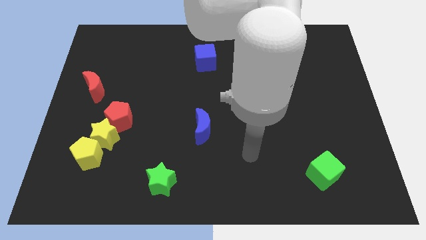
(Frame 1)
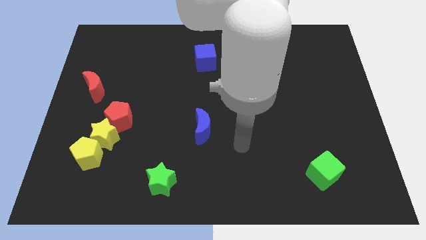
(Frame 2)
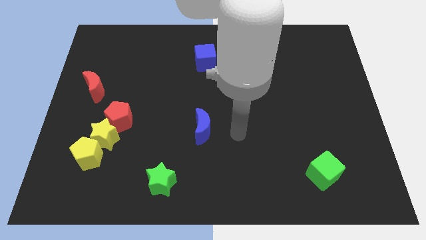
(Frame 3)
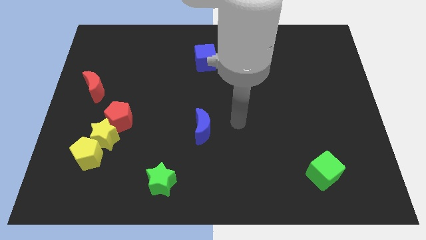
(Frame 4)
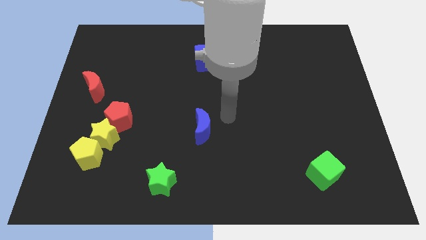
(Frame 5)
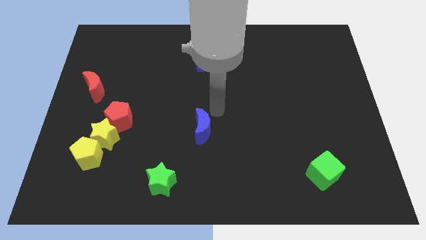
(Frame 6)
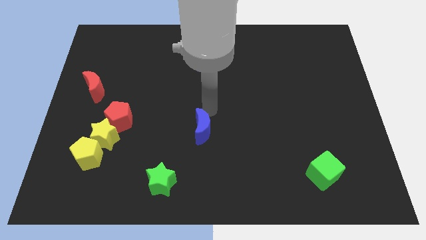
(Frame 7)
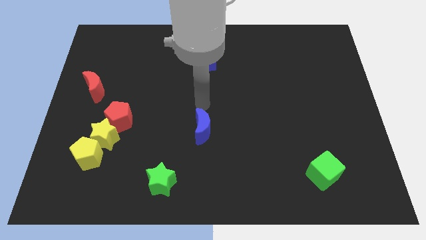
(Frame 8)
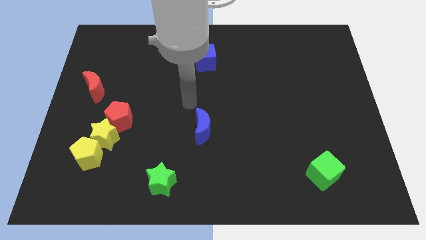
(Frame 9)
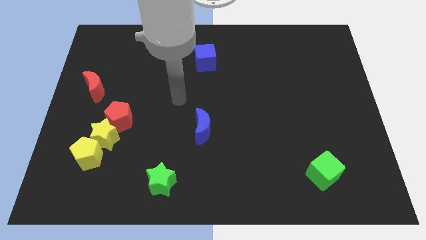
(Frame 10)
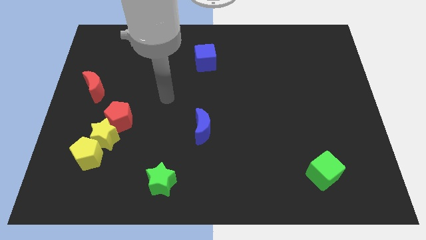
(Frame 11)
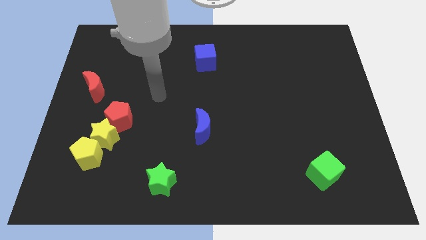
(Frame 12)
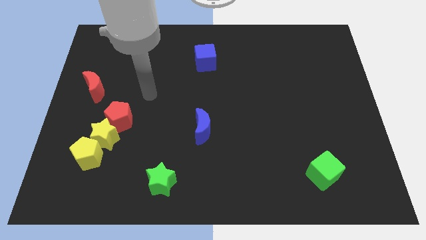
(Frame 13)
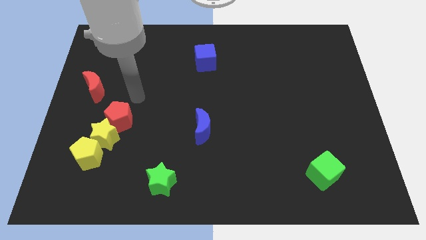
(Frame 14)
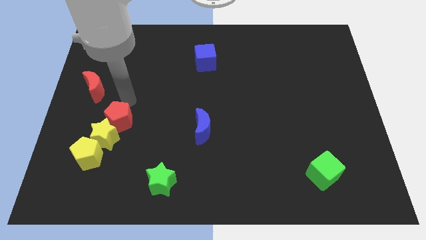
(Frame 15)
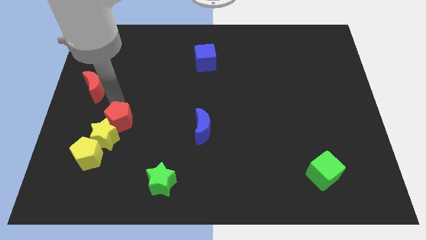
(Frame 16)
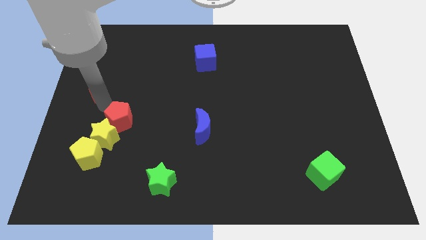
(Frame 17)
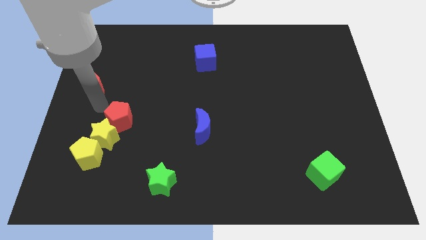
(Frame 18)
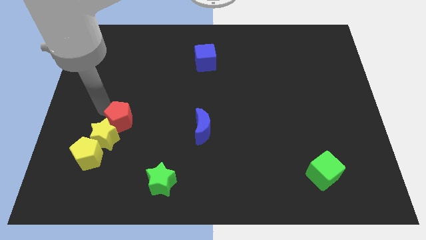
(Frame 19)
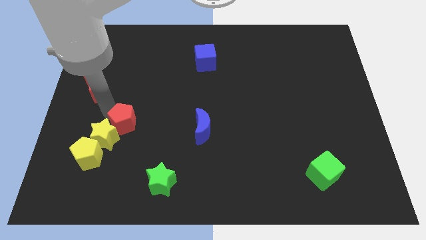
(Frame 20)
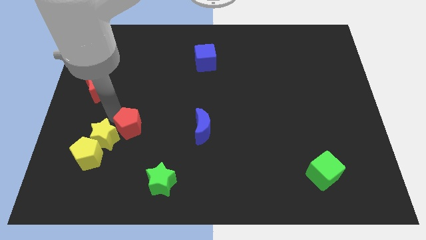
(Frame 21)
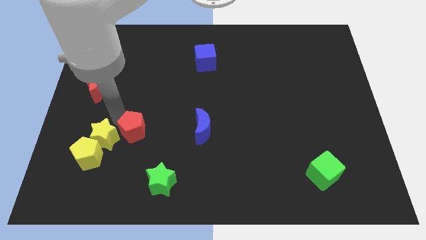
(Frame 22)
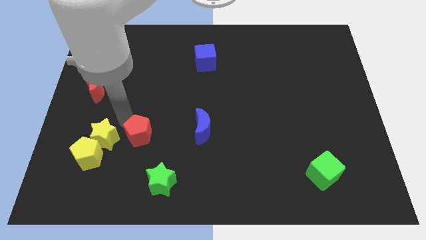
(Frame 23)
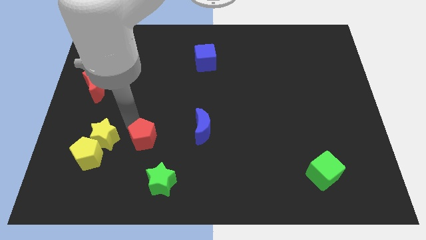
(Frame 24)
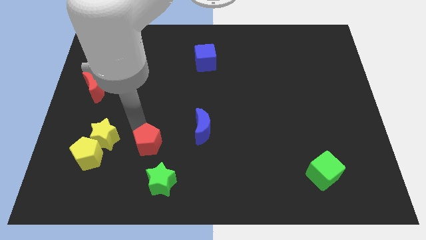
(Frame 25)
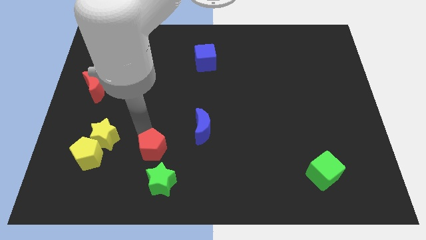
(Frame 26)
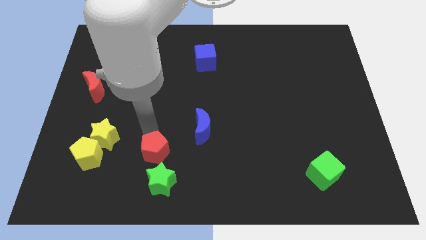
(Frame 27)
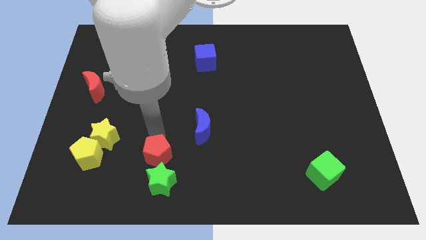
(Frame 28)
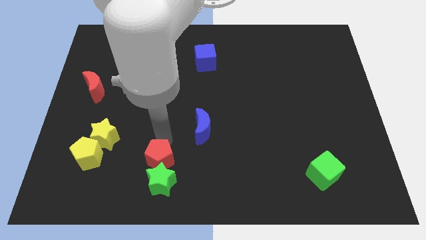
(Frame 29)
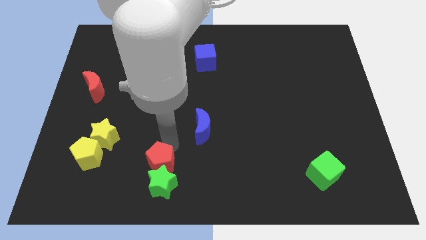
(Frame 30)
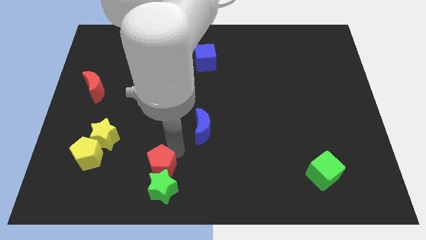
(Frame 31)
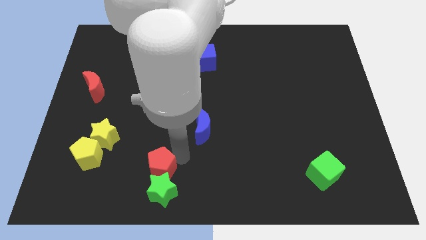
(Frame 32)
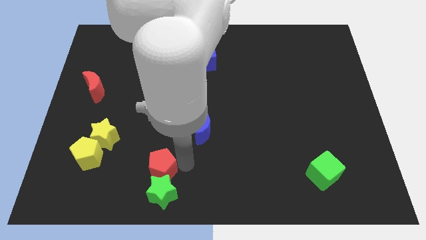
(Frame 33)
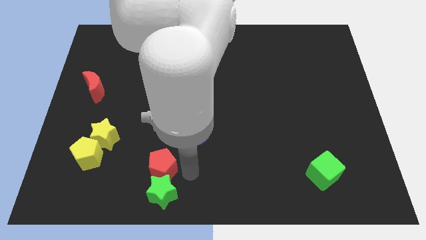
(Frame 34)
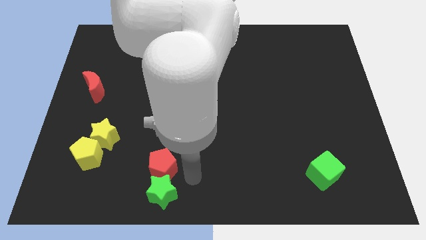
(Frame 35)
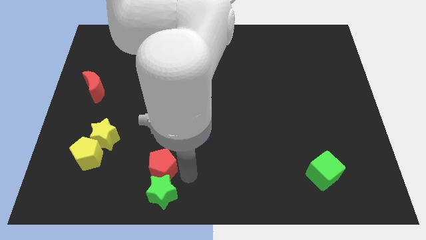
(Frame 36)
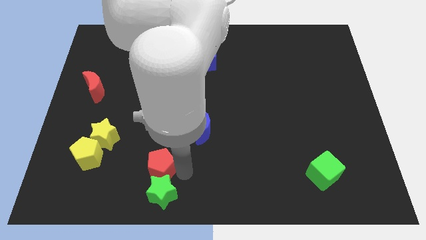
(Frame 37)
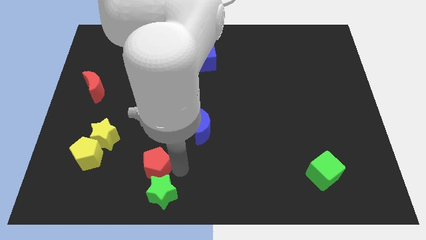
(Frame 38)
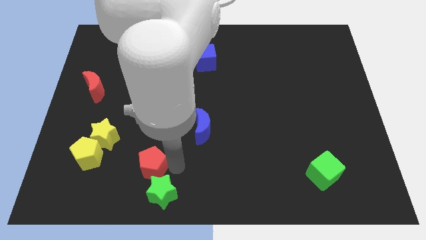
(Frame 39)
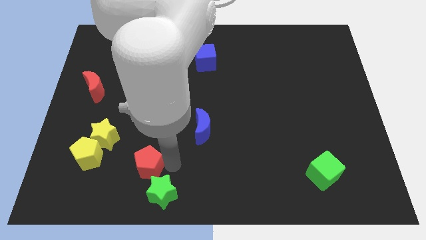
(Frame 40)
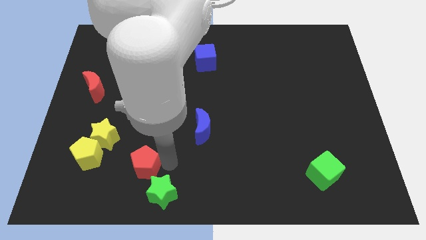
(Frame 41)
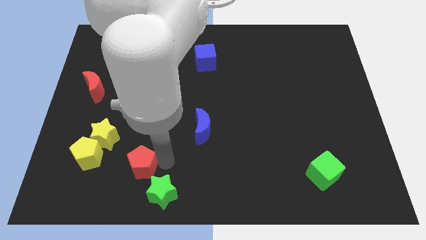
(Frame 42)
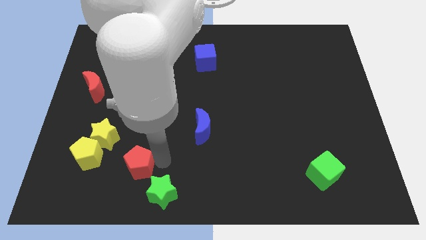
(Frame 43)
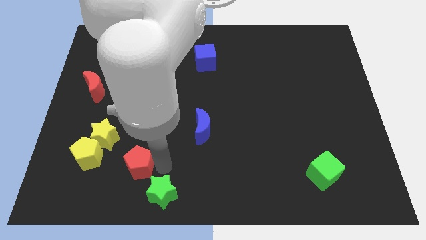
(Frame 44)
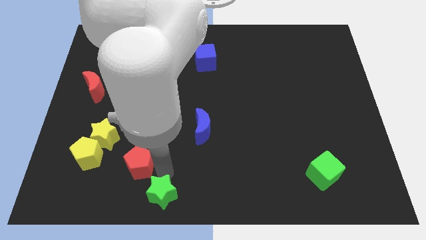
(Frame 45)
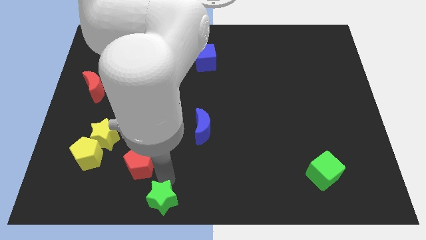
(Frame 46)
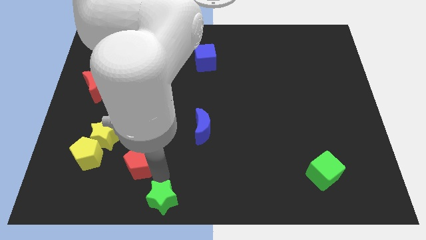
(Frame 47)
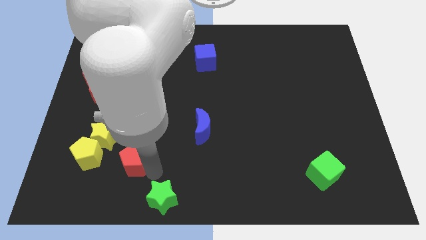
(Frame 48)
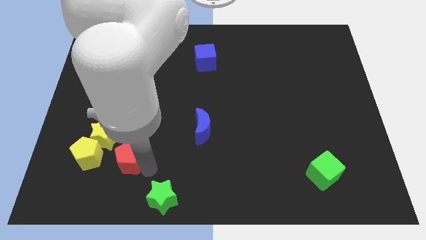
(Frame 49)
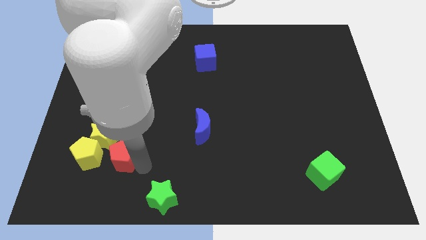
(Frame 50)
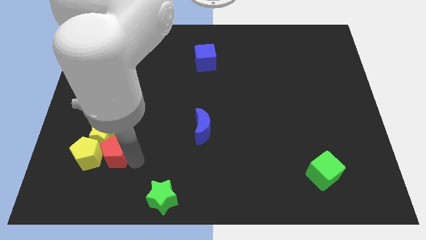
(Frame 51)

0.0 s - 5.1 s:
move the red pentagon close to the yellow pentagon

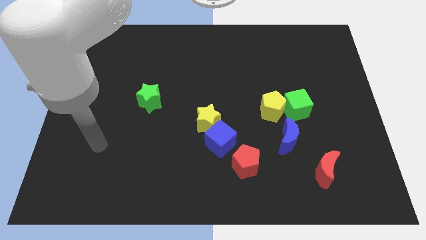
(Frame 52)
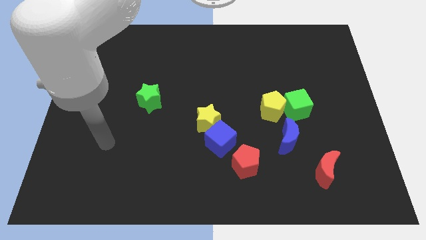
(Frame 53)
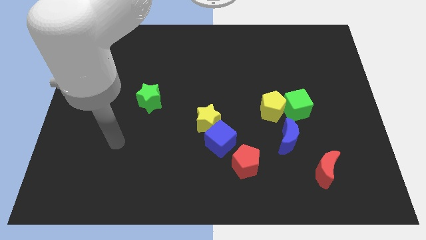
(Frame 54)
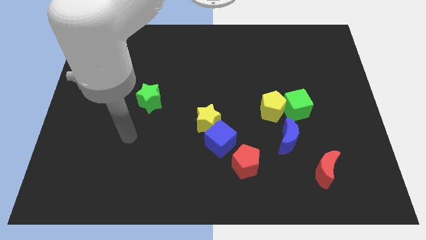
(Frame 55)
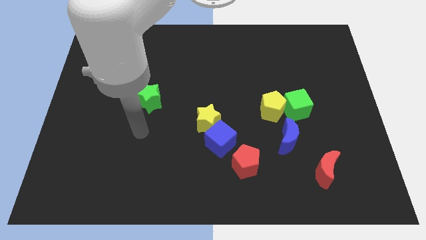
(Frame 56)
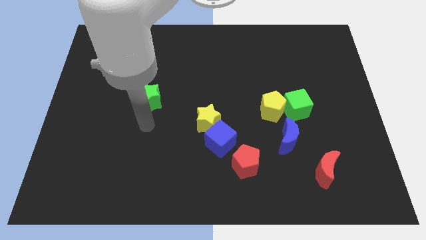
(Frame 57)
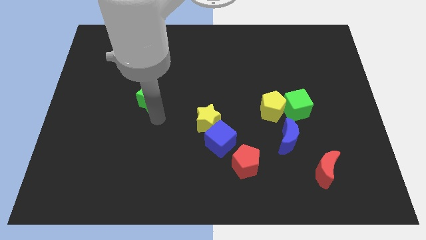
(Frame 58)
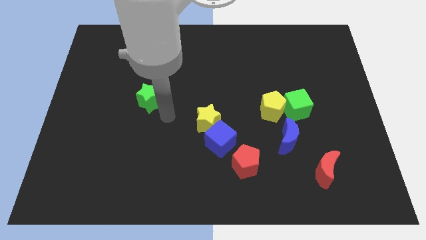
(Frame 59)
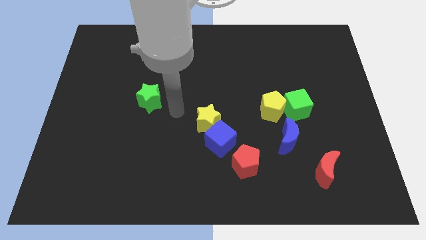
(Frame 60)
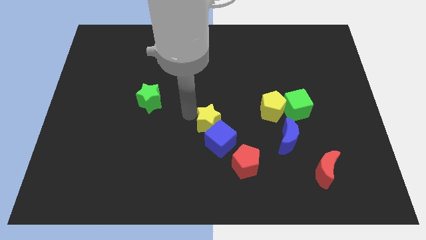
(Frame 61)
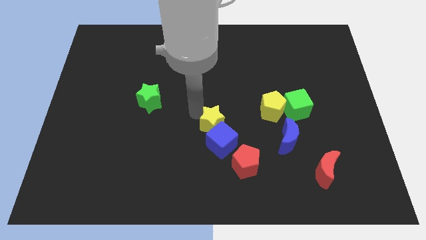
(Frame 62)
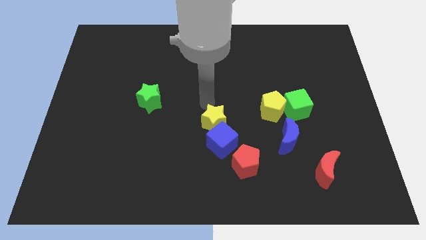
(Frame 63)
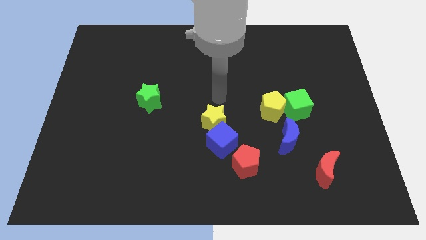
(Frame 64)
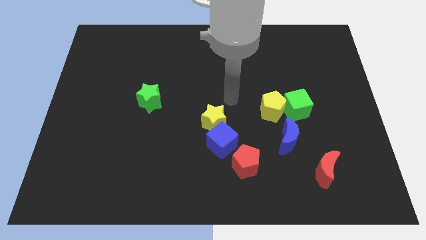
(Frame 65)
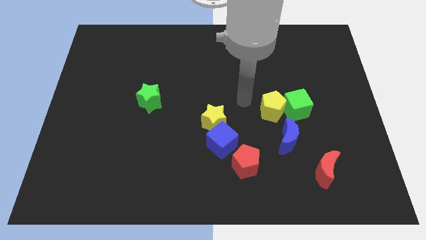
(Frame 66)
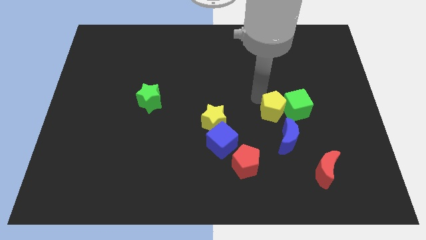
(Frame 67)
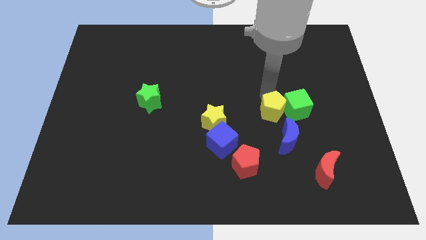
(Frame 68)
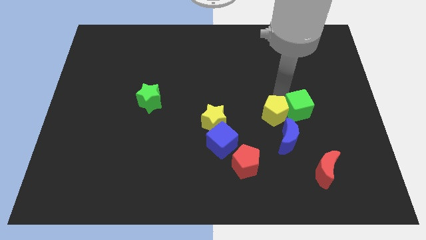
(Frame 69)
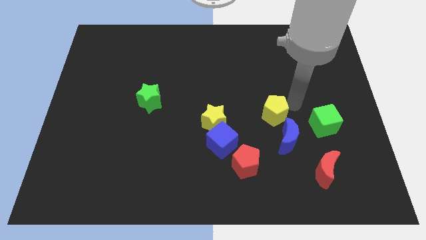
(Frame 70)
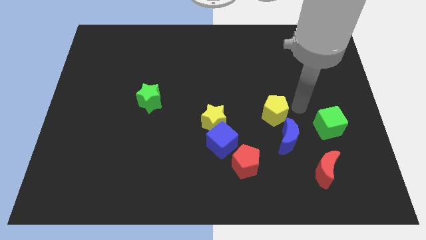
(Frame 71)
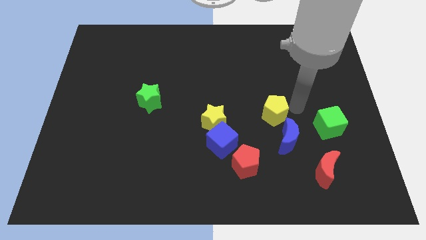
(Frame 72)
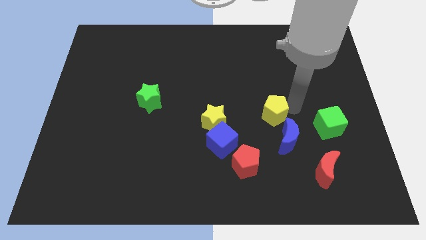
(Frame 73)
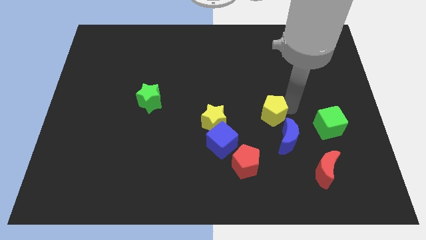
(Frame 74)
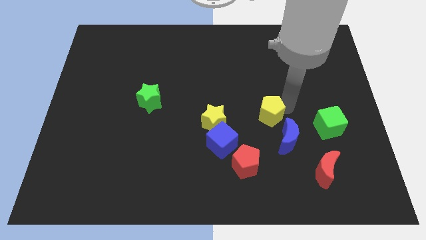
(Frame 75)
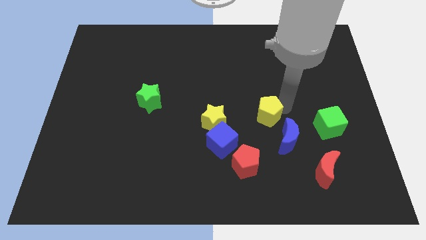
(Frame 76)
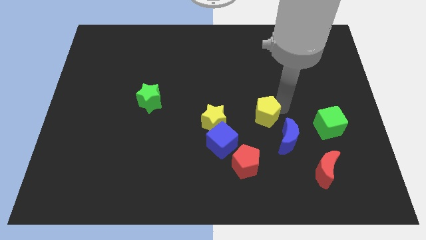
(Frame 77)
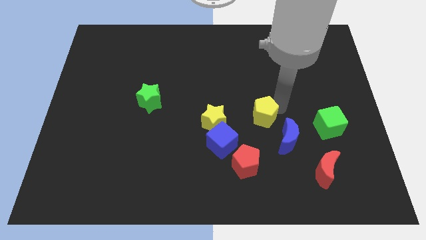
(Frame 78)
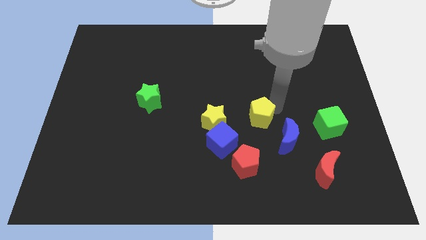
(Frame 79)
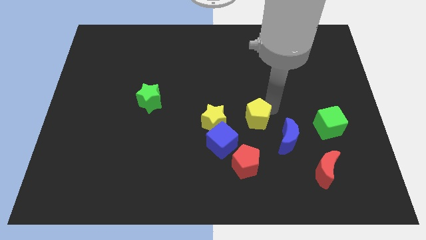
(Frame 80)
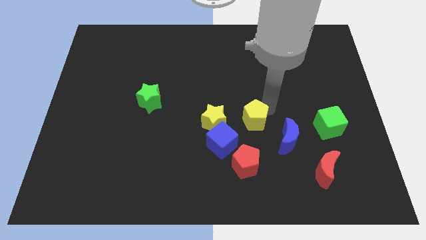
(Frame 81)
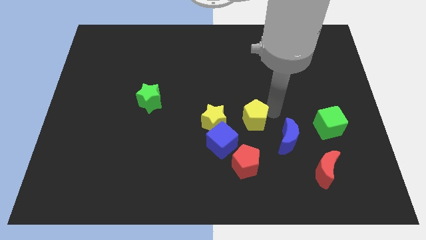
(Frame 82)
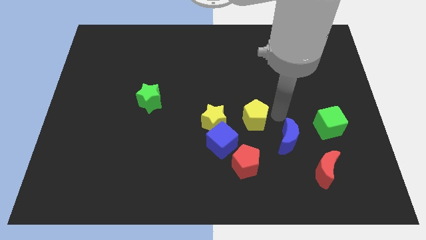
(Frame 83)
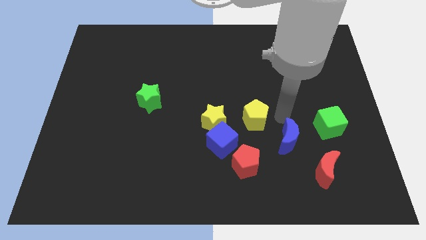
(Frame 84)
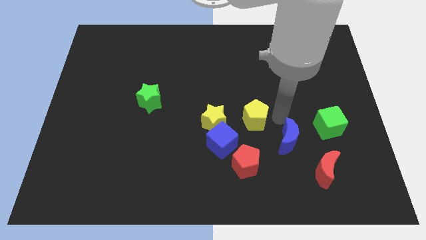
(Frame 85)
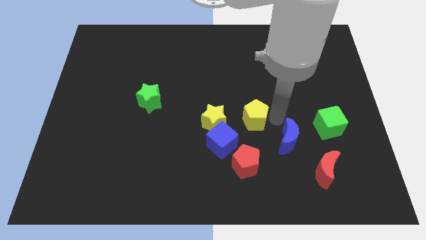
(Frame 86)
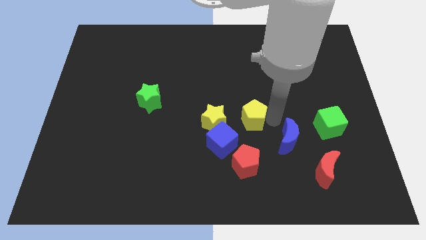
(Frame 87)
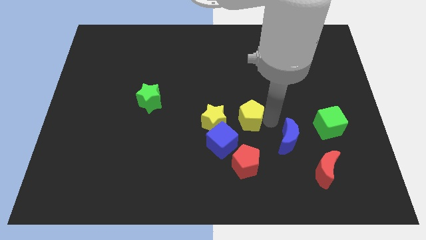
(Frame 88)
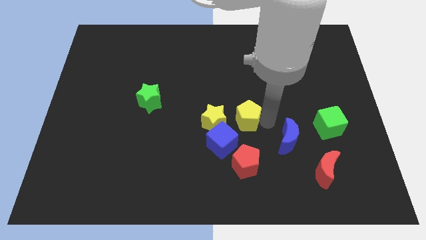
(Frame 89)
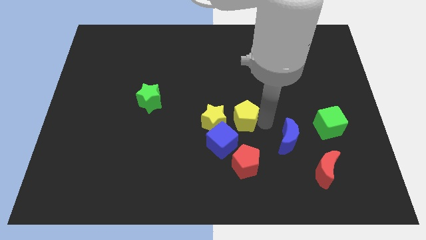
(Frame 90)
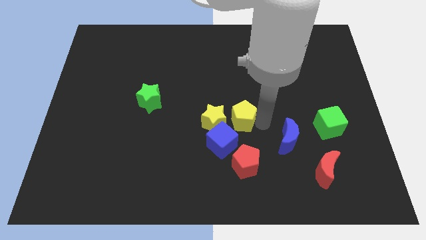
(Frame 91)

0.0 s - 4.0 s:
move the yellow pentagon towards the yellow star
